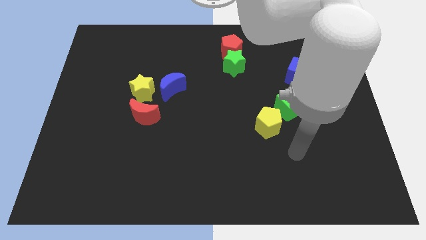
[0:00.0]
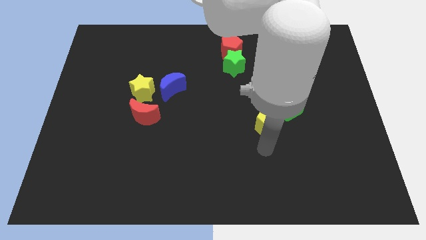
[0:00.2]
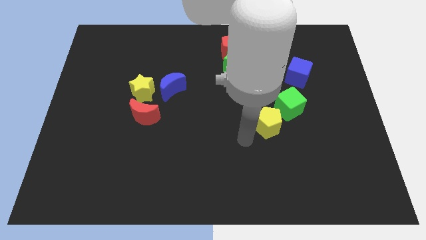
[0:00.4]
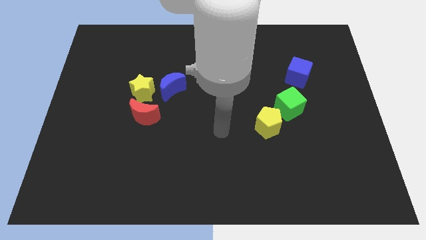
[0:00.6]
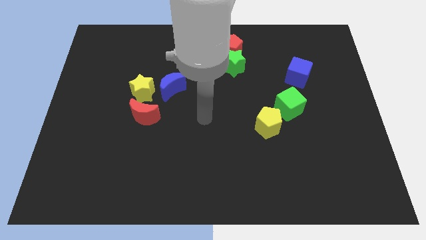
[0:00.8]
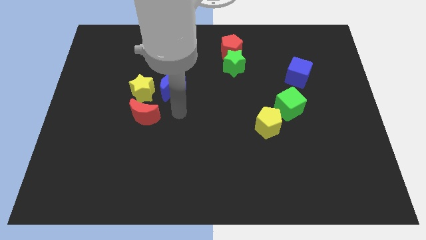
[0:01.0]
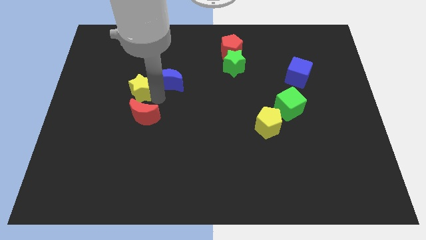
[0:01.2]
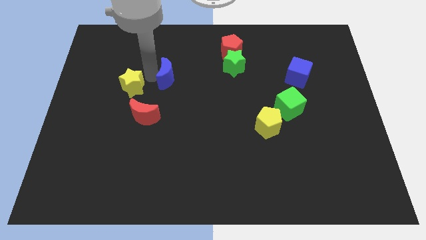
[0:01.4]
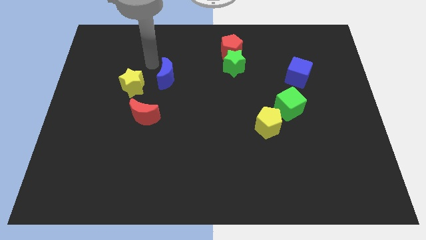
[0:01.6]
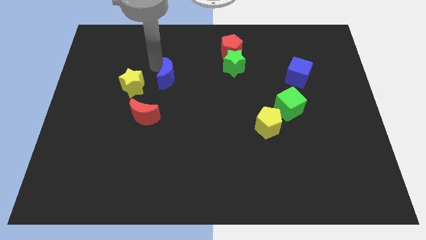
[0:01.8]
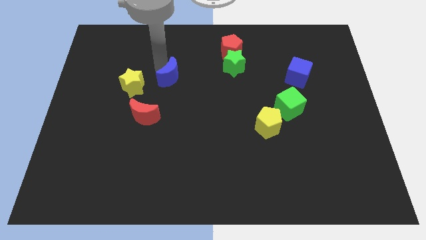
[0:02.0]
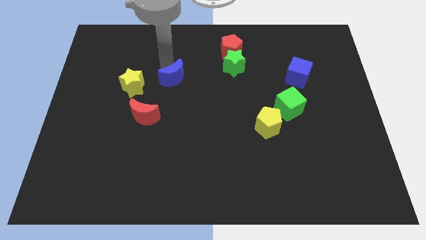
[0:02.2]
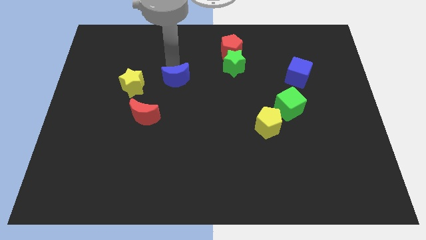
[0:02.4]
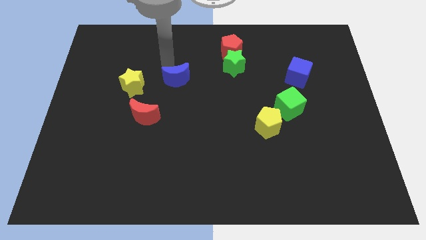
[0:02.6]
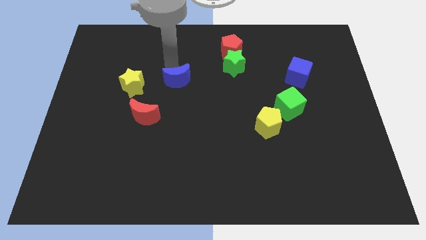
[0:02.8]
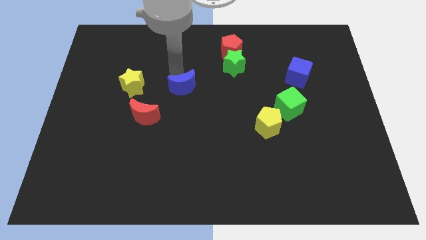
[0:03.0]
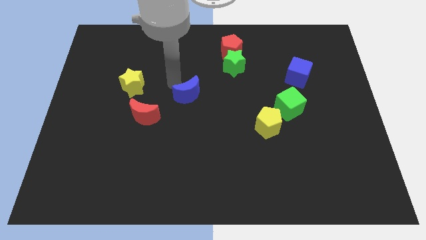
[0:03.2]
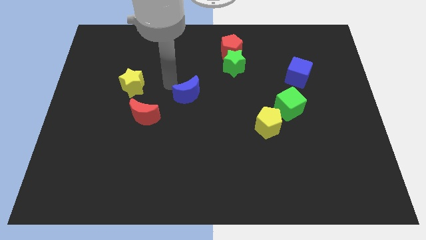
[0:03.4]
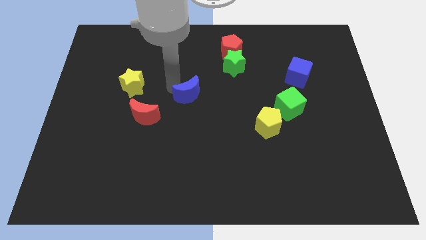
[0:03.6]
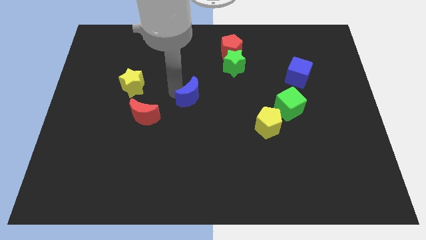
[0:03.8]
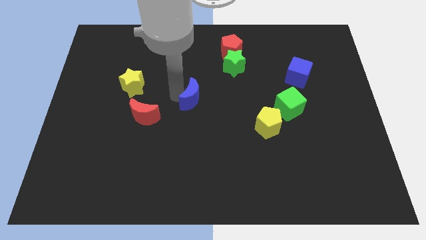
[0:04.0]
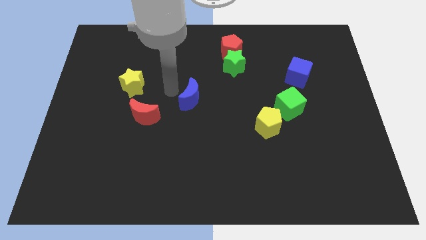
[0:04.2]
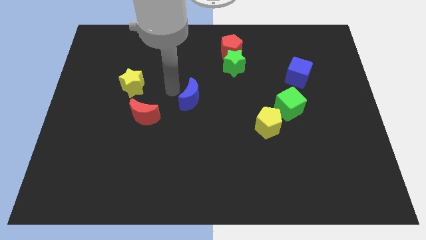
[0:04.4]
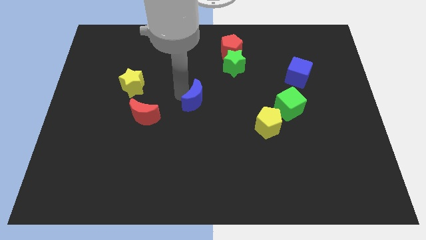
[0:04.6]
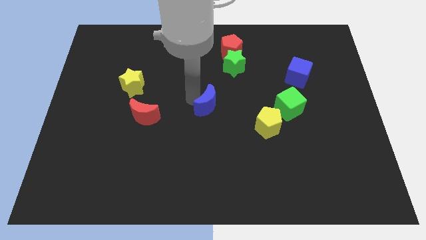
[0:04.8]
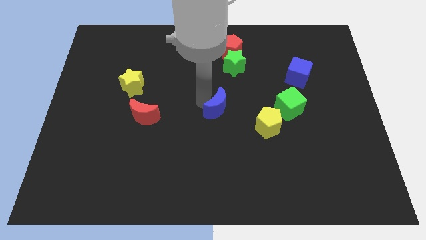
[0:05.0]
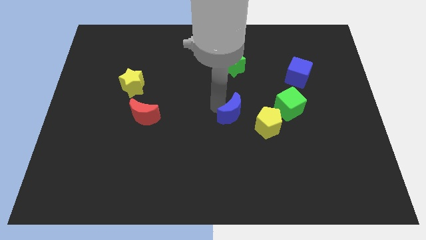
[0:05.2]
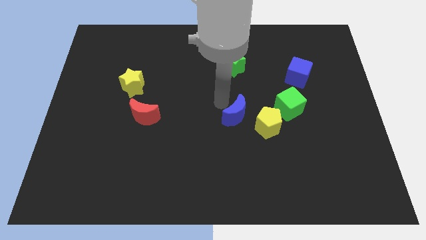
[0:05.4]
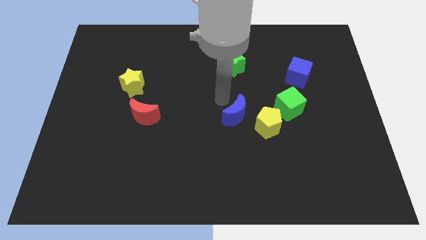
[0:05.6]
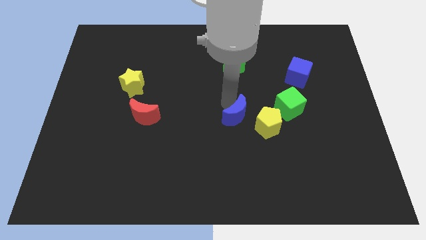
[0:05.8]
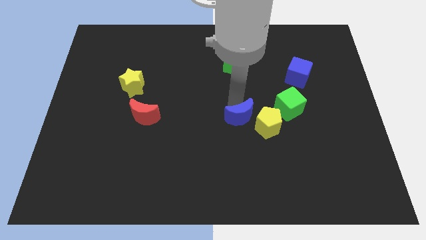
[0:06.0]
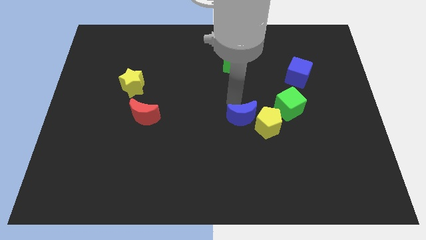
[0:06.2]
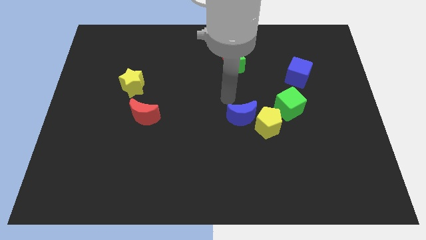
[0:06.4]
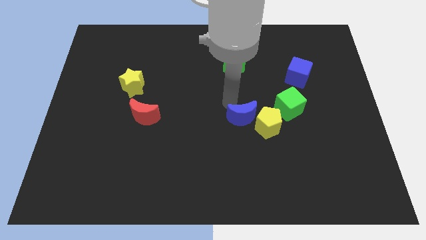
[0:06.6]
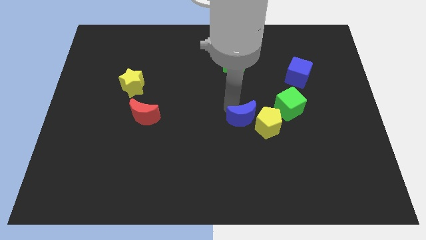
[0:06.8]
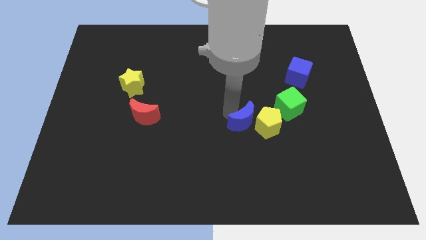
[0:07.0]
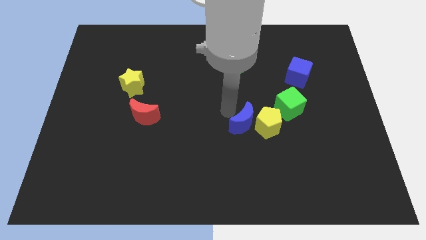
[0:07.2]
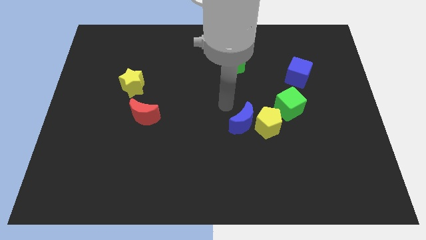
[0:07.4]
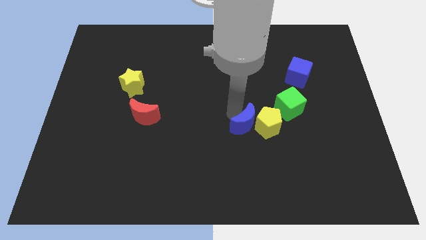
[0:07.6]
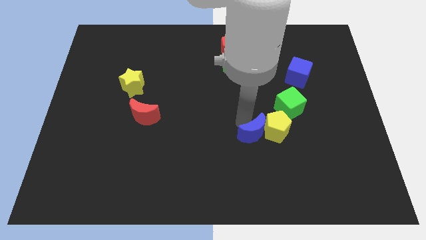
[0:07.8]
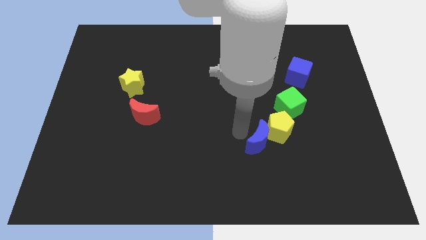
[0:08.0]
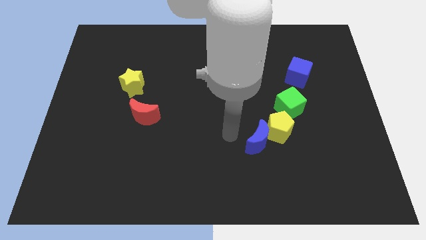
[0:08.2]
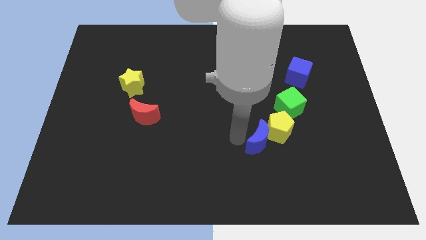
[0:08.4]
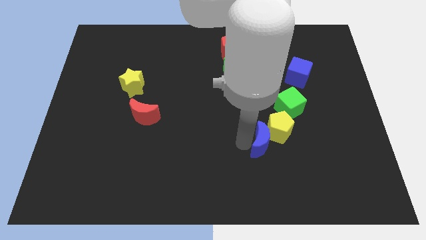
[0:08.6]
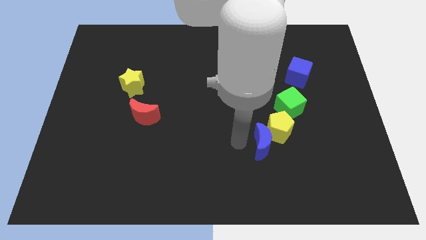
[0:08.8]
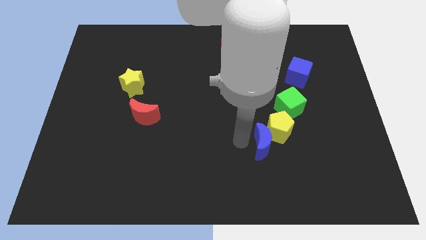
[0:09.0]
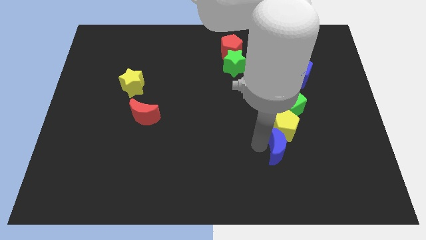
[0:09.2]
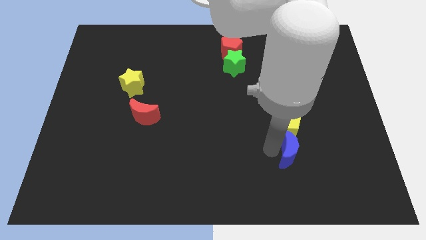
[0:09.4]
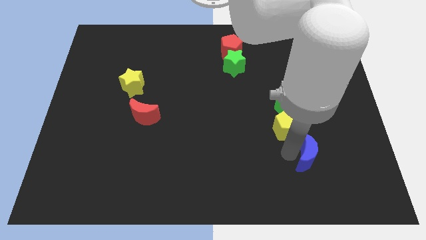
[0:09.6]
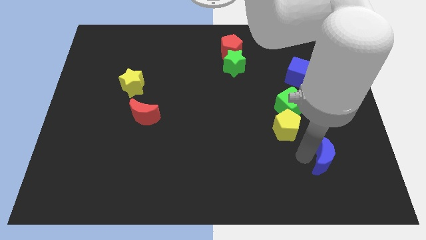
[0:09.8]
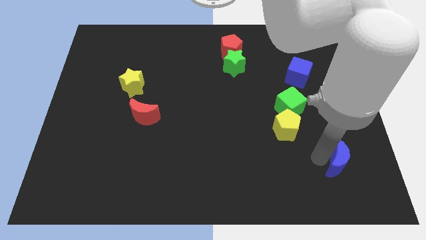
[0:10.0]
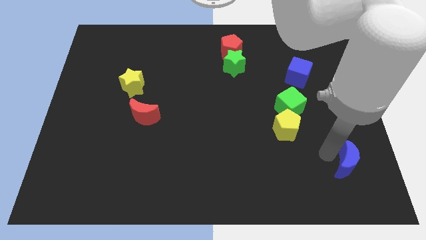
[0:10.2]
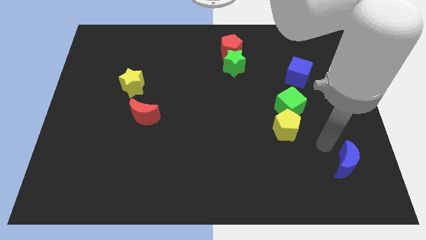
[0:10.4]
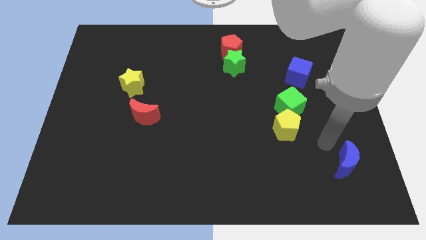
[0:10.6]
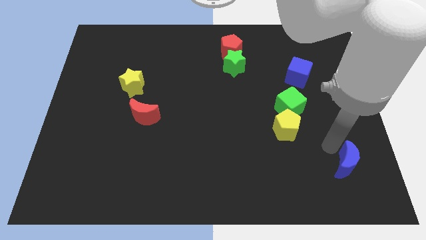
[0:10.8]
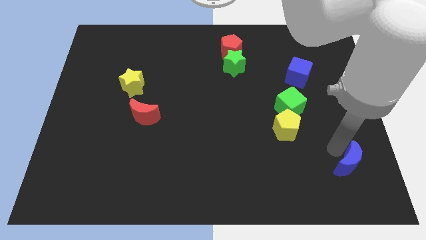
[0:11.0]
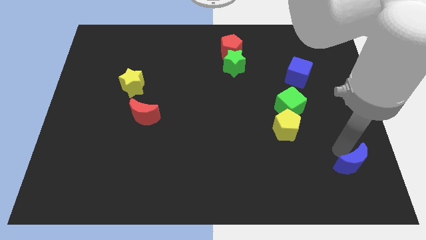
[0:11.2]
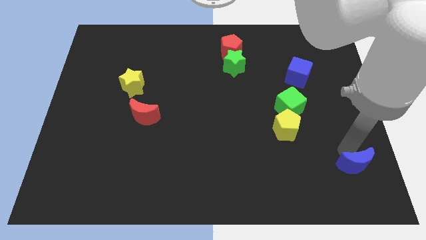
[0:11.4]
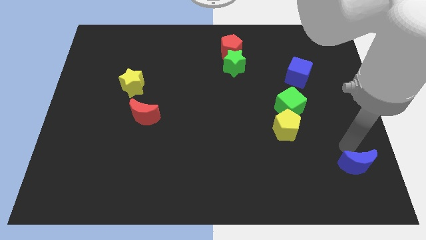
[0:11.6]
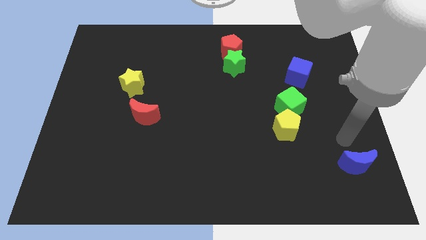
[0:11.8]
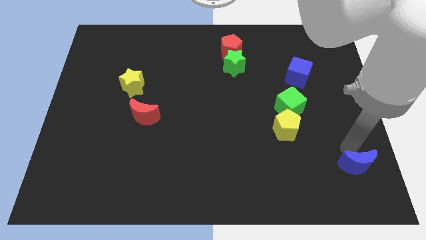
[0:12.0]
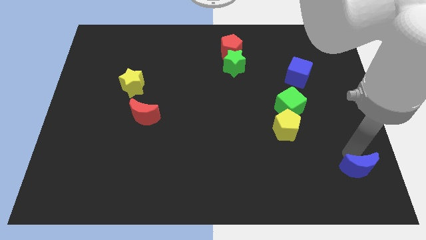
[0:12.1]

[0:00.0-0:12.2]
put the blue moon to the bottom right of the board
